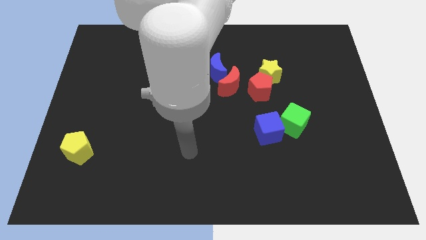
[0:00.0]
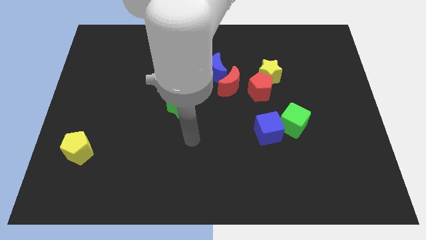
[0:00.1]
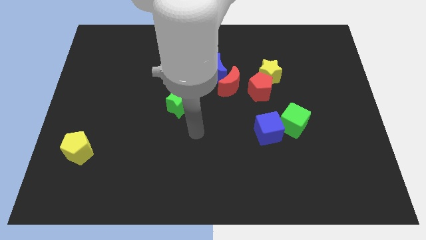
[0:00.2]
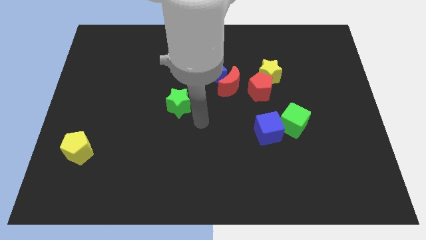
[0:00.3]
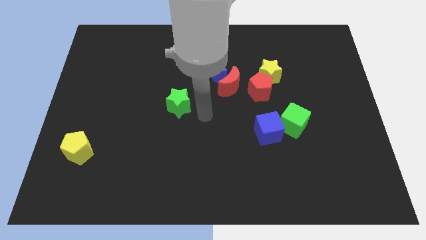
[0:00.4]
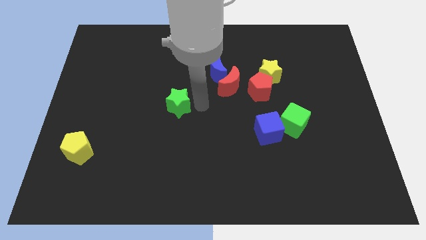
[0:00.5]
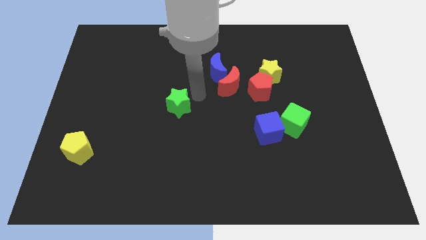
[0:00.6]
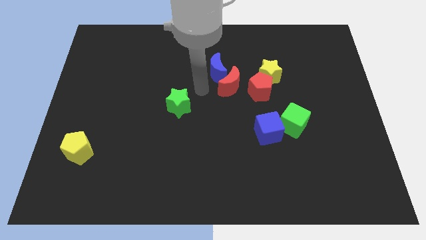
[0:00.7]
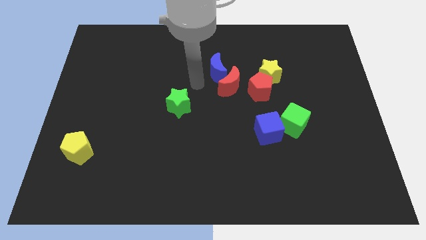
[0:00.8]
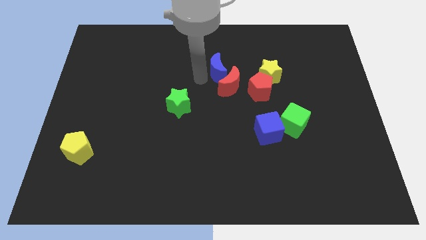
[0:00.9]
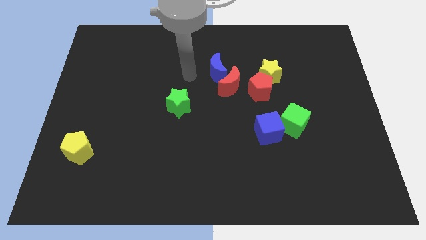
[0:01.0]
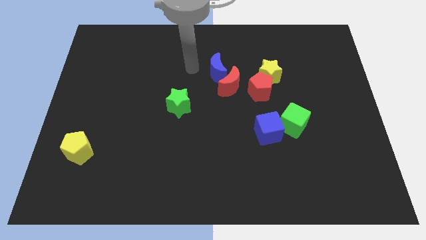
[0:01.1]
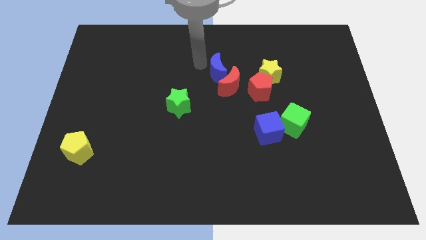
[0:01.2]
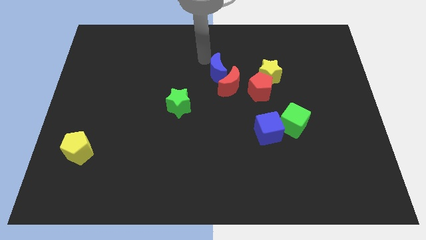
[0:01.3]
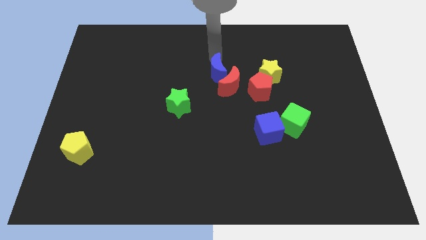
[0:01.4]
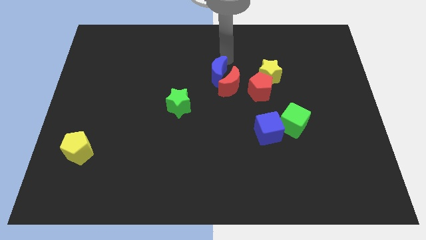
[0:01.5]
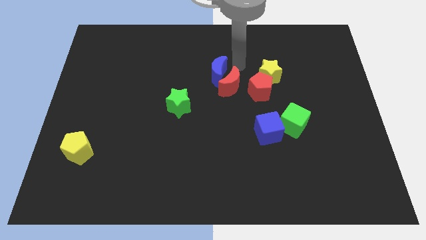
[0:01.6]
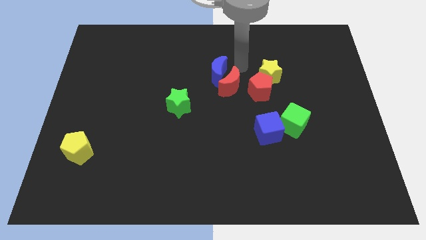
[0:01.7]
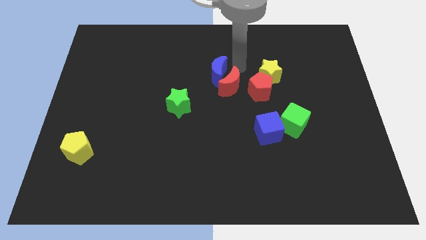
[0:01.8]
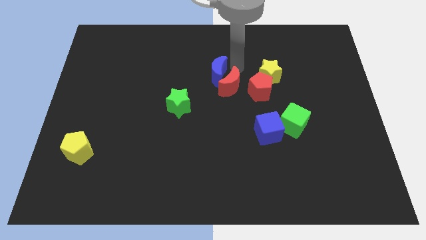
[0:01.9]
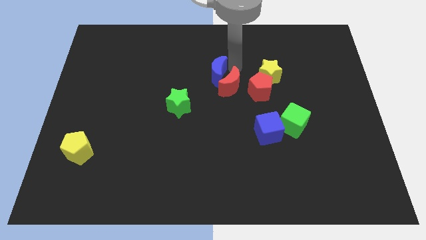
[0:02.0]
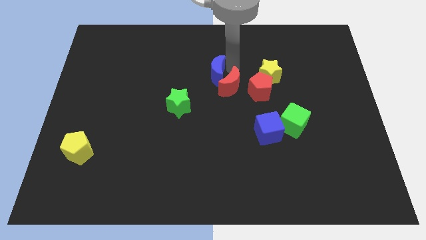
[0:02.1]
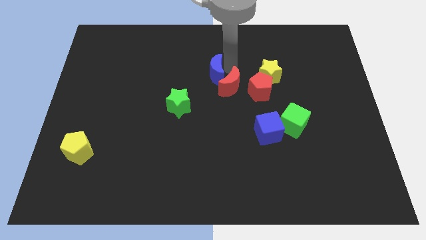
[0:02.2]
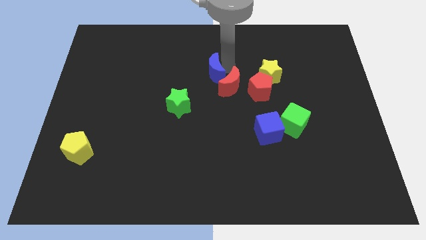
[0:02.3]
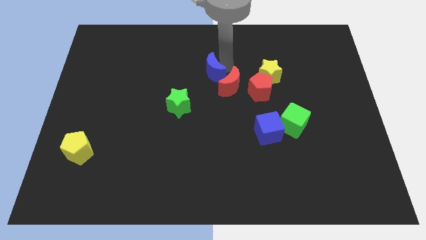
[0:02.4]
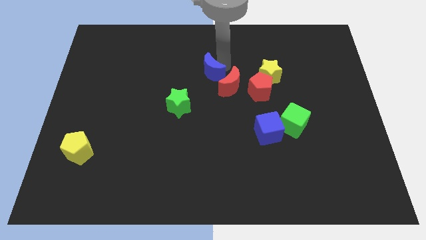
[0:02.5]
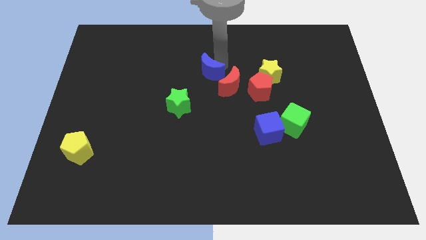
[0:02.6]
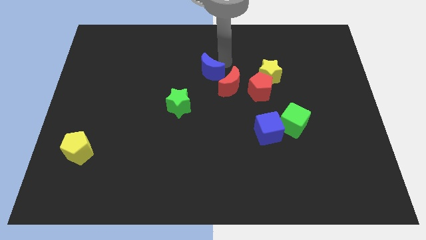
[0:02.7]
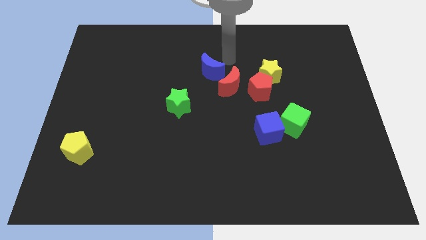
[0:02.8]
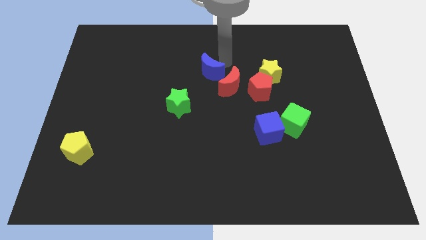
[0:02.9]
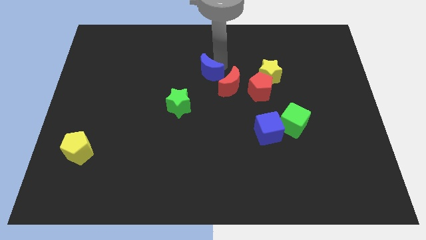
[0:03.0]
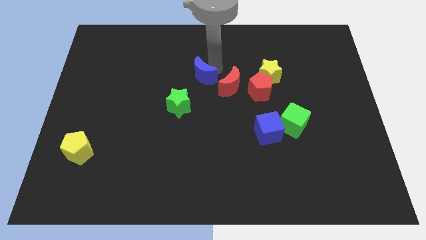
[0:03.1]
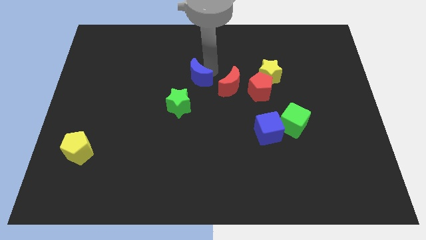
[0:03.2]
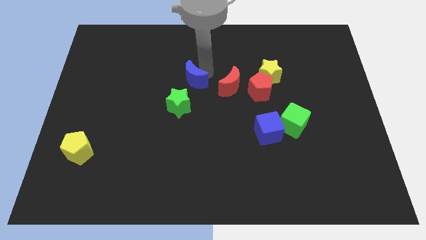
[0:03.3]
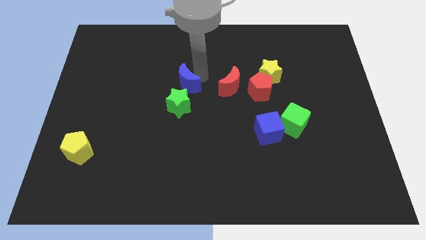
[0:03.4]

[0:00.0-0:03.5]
move the blue moon a bit downwards and to the left

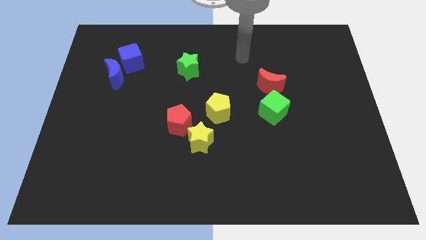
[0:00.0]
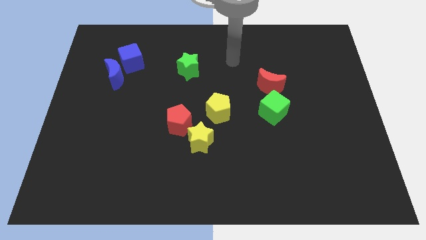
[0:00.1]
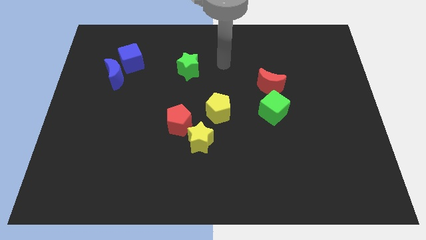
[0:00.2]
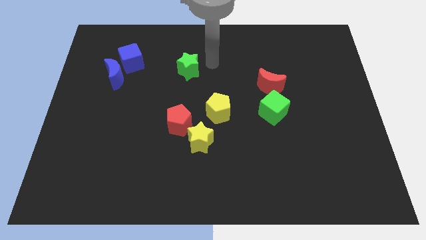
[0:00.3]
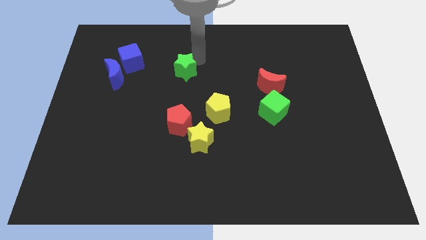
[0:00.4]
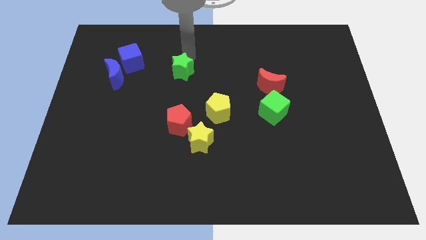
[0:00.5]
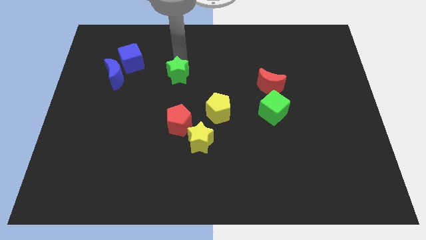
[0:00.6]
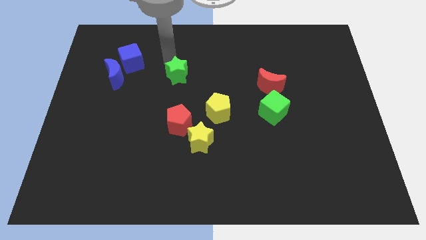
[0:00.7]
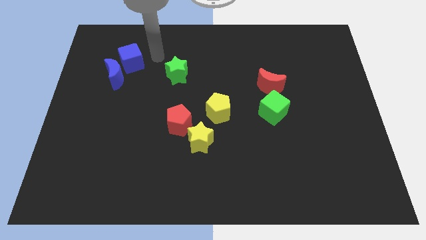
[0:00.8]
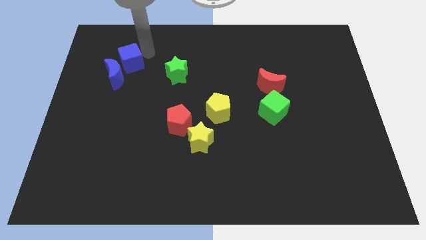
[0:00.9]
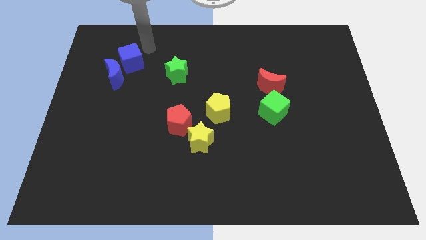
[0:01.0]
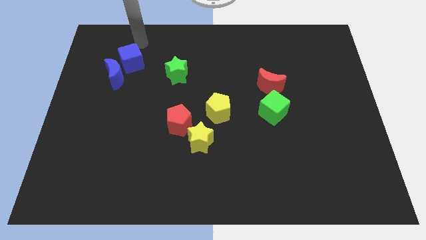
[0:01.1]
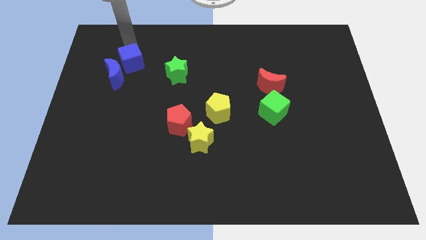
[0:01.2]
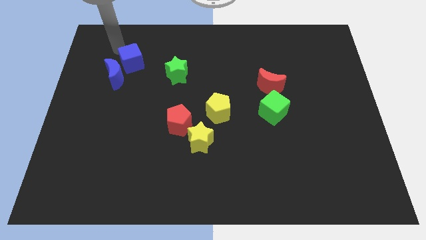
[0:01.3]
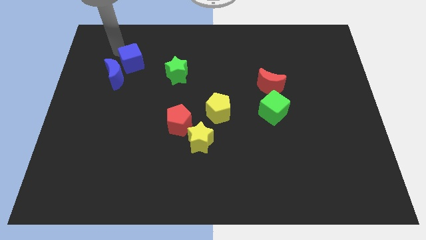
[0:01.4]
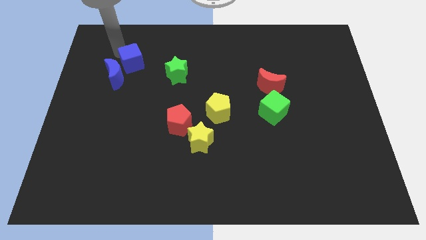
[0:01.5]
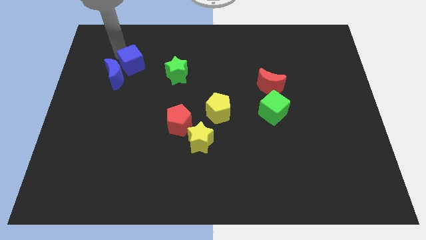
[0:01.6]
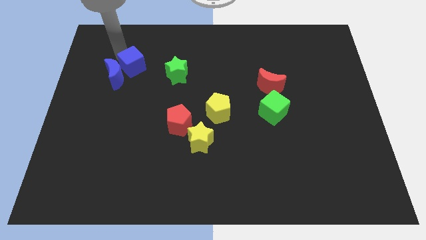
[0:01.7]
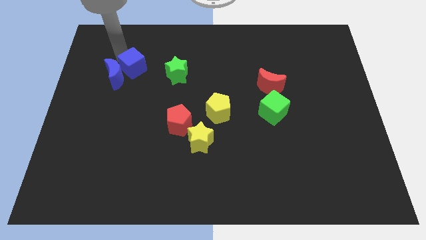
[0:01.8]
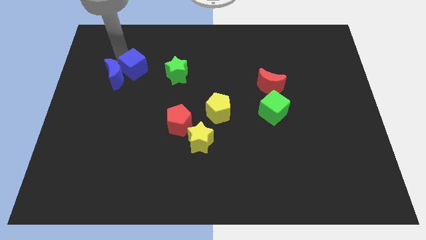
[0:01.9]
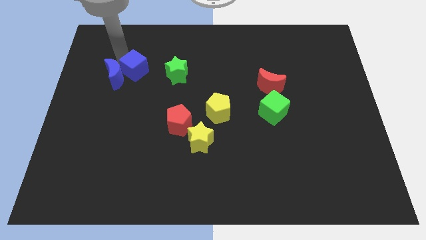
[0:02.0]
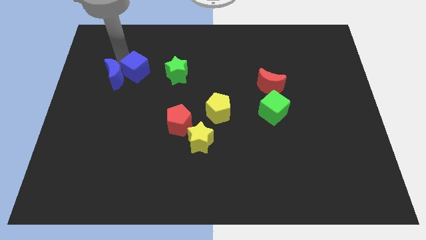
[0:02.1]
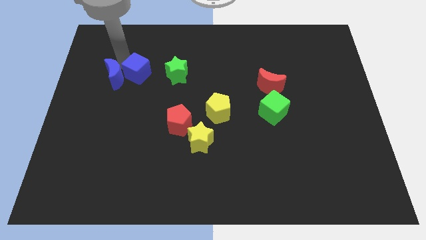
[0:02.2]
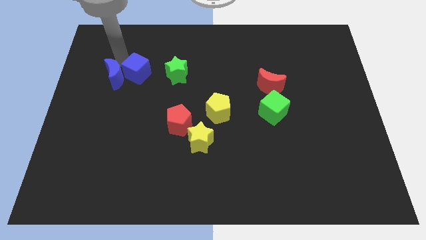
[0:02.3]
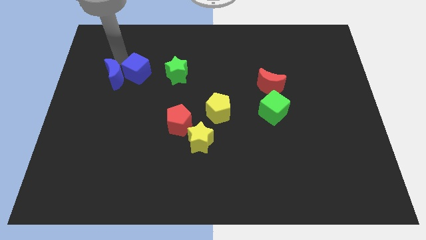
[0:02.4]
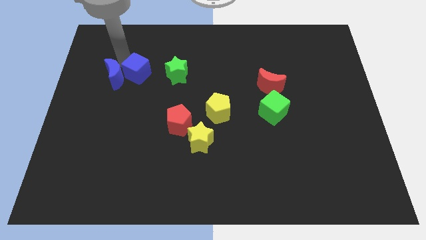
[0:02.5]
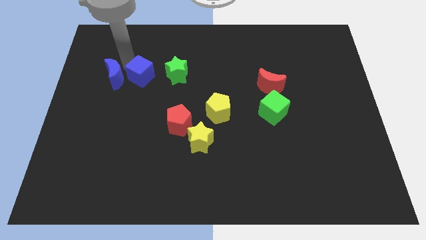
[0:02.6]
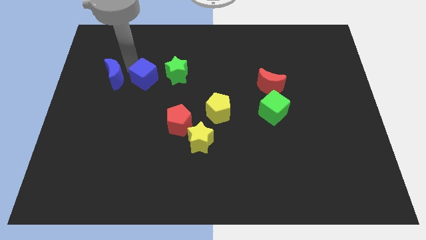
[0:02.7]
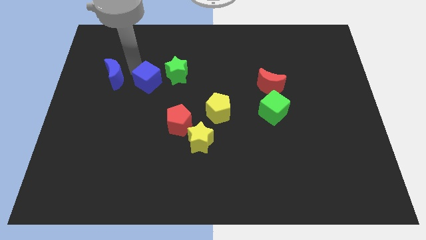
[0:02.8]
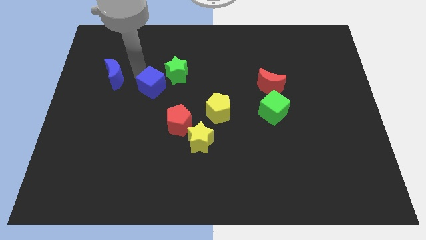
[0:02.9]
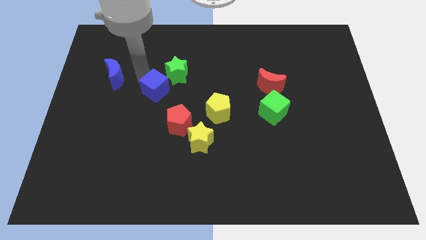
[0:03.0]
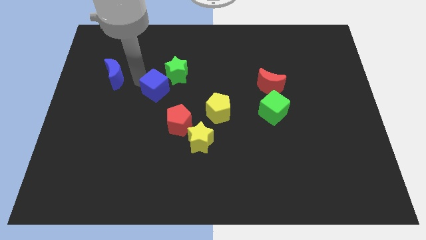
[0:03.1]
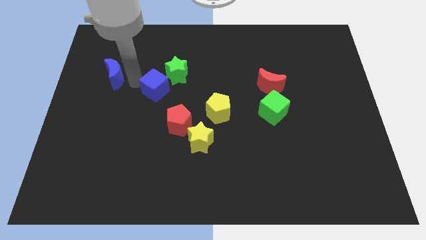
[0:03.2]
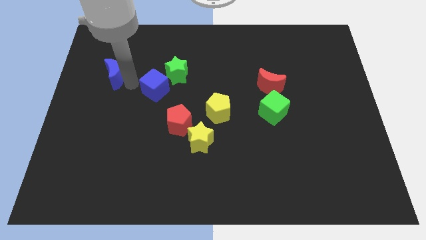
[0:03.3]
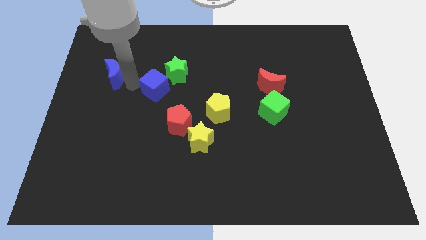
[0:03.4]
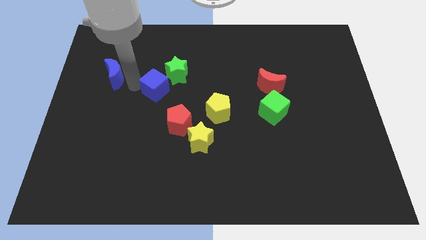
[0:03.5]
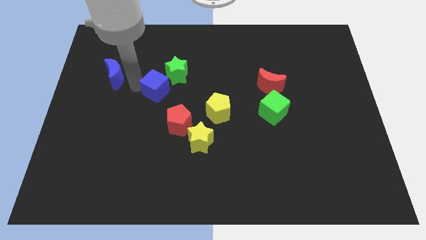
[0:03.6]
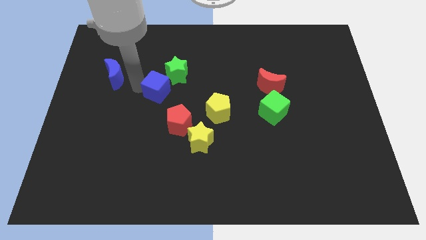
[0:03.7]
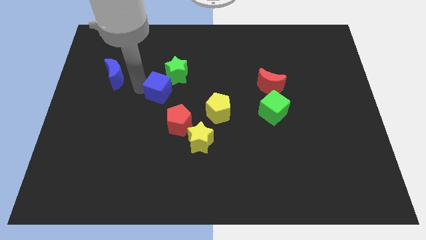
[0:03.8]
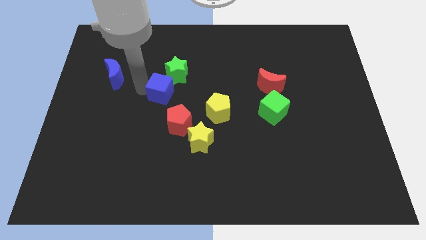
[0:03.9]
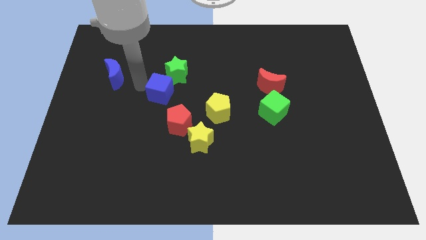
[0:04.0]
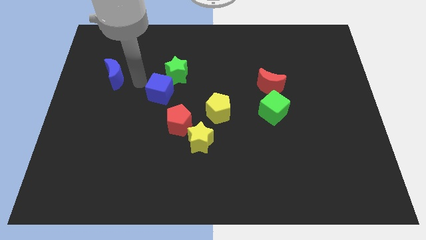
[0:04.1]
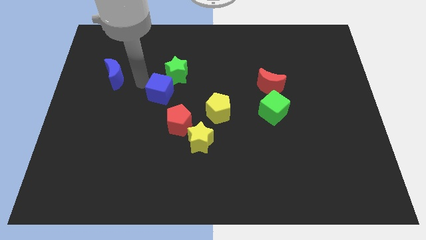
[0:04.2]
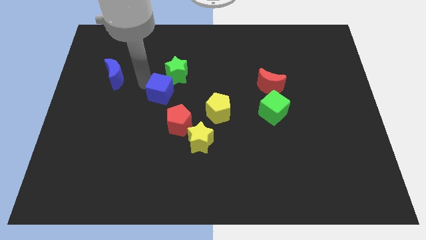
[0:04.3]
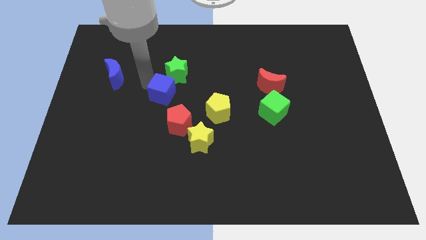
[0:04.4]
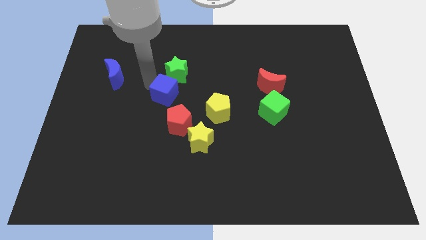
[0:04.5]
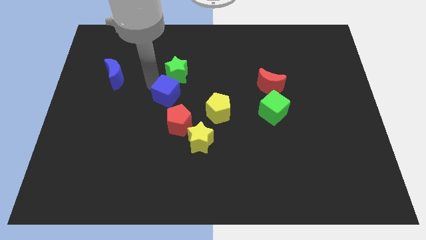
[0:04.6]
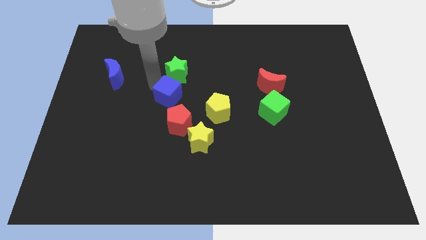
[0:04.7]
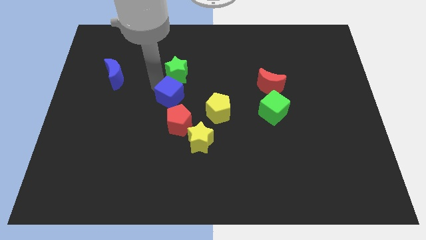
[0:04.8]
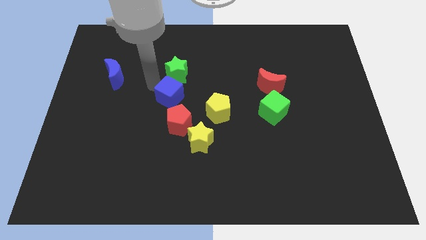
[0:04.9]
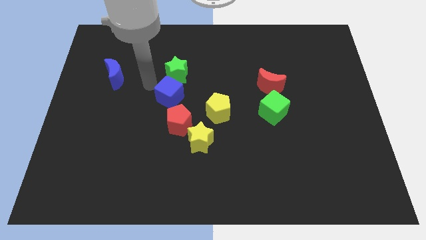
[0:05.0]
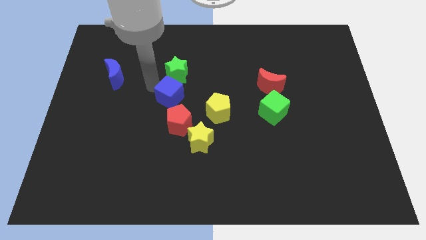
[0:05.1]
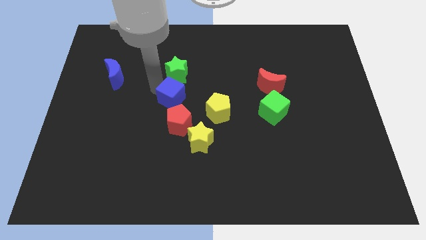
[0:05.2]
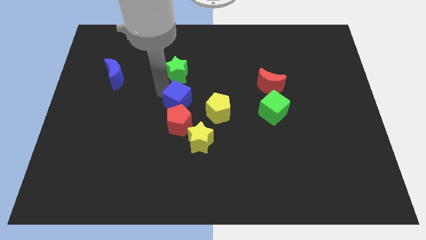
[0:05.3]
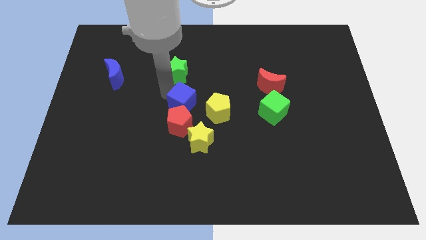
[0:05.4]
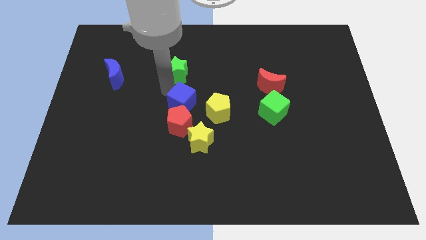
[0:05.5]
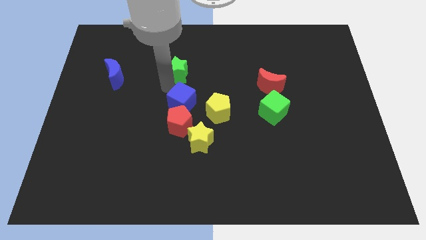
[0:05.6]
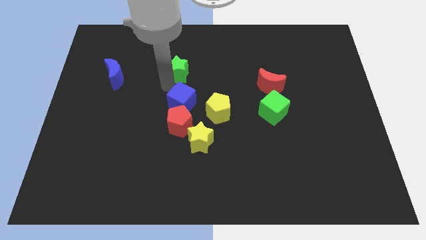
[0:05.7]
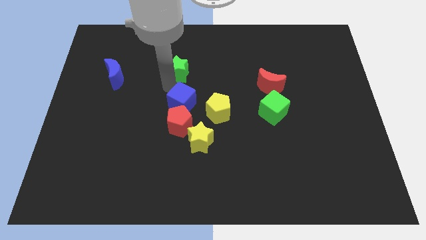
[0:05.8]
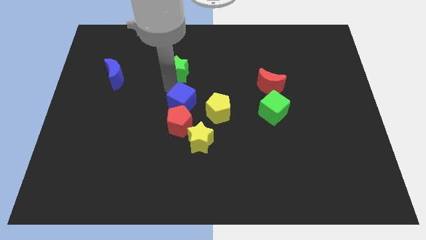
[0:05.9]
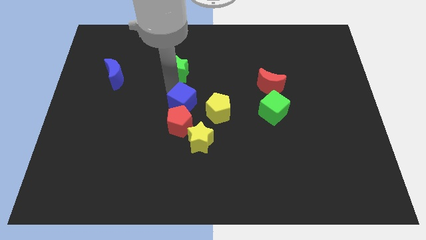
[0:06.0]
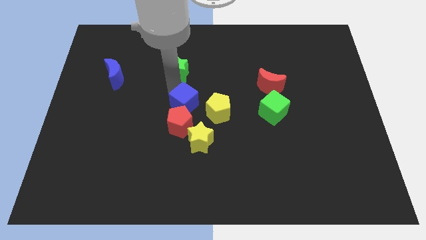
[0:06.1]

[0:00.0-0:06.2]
push the blue cube down and to the right
